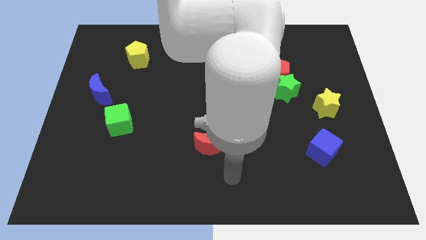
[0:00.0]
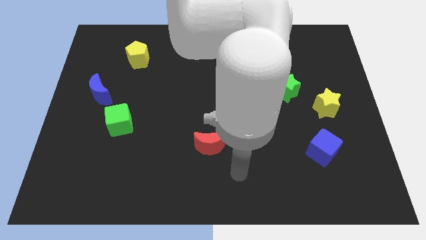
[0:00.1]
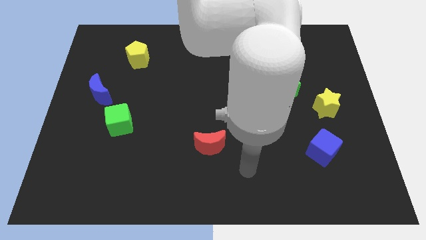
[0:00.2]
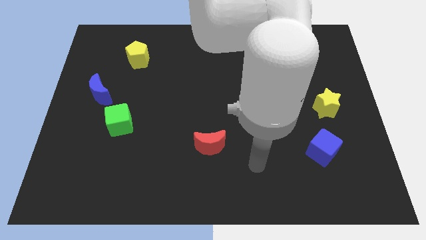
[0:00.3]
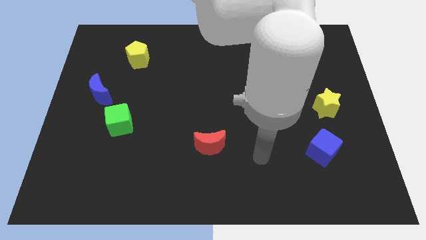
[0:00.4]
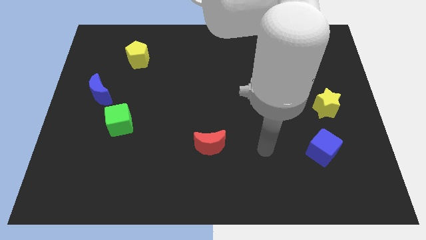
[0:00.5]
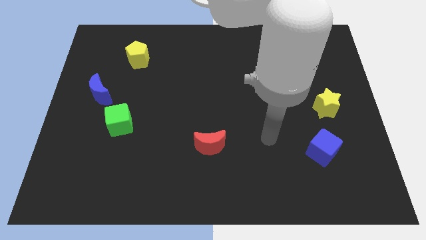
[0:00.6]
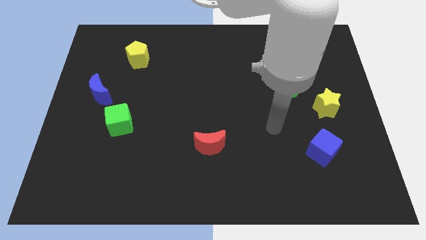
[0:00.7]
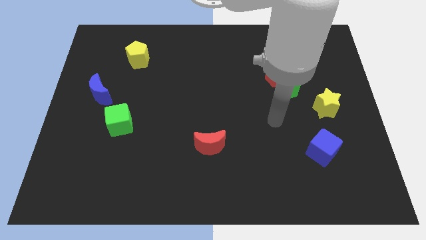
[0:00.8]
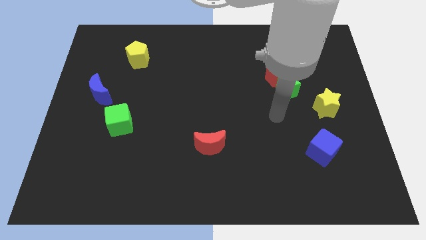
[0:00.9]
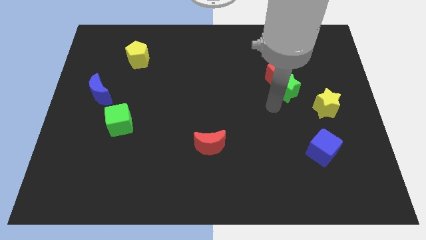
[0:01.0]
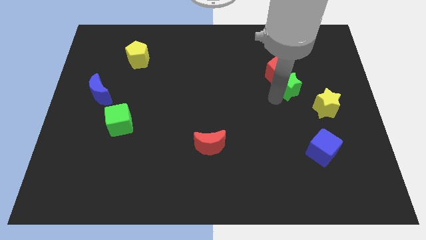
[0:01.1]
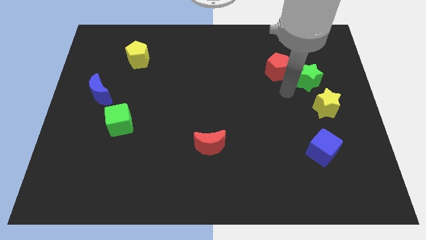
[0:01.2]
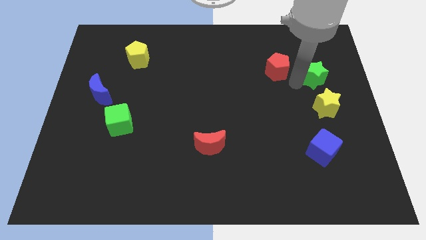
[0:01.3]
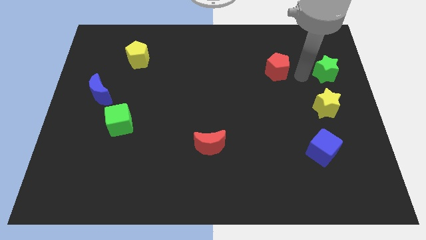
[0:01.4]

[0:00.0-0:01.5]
separate the red pentagon from the green star

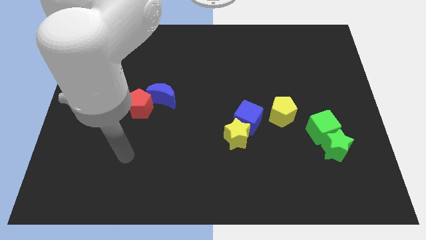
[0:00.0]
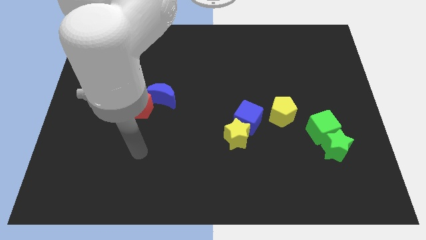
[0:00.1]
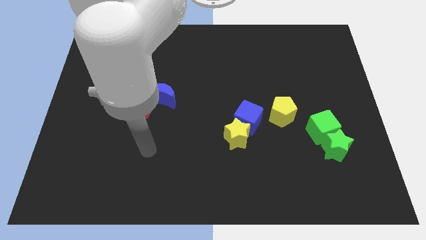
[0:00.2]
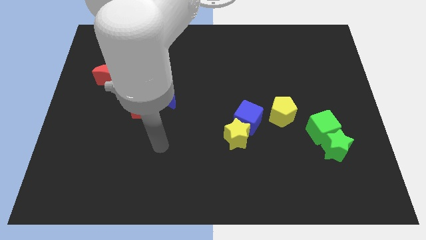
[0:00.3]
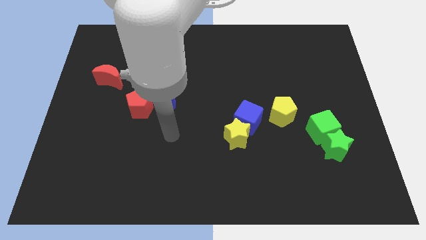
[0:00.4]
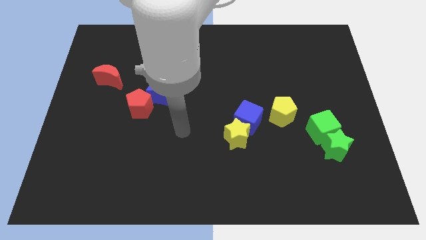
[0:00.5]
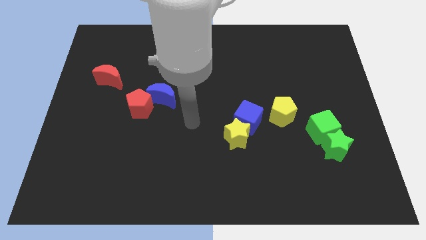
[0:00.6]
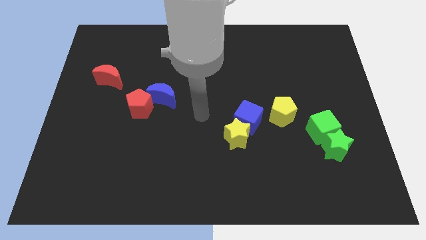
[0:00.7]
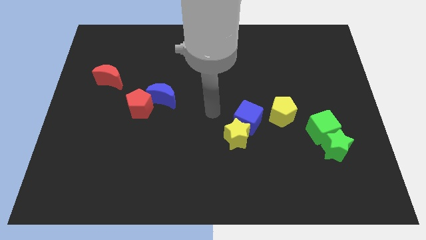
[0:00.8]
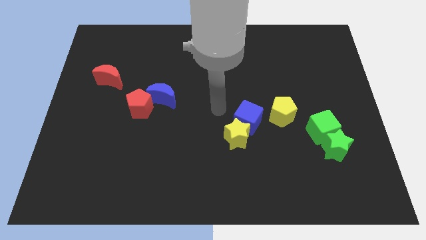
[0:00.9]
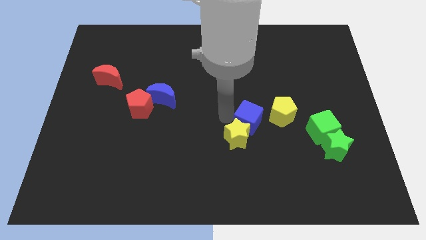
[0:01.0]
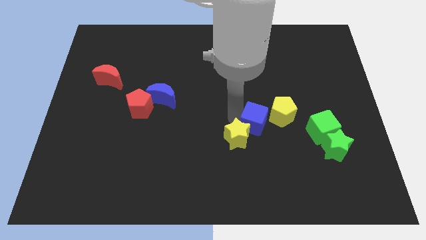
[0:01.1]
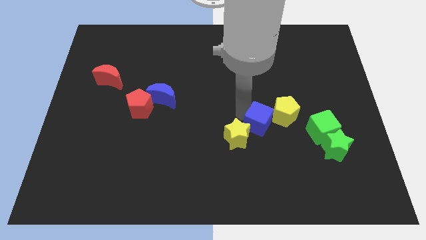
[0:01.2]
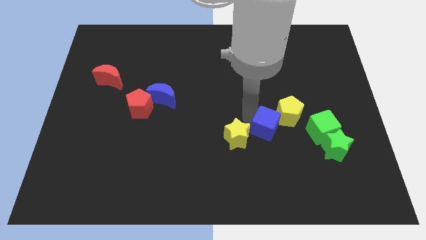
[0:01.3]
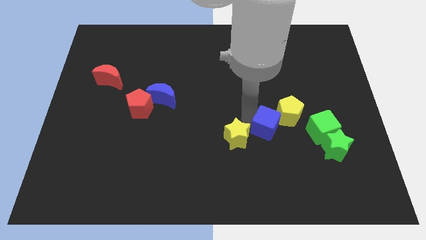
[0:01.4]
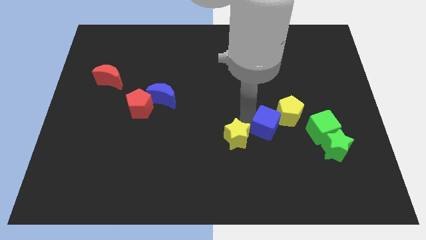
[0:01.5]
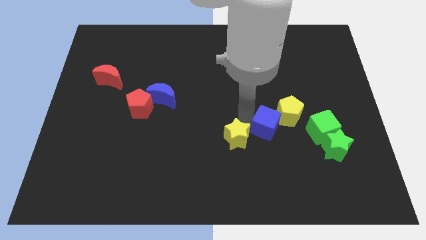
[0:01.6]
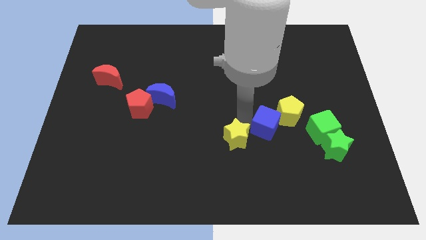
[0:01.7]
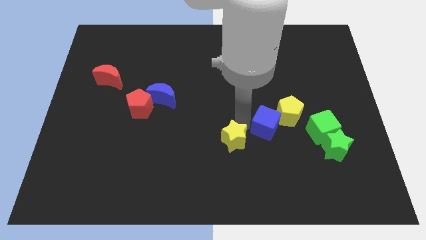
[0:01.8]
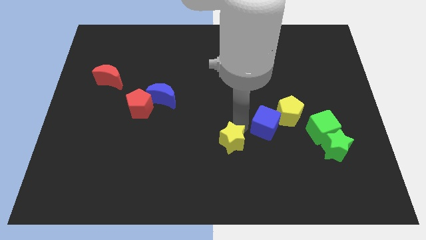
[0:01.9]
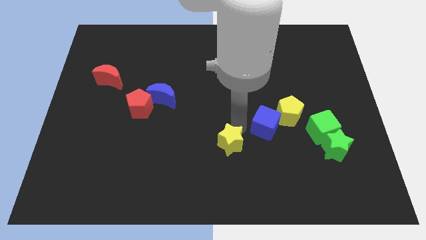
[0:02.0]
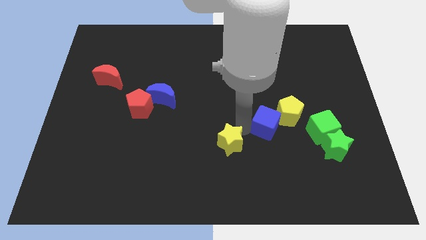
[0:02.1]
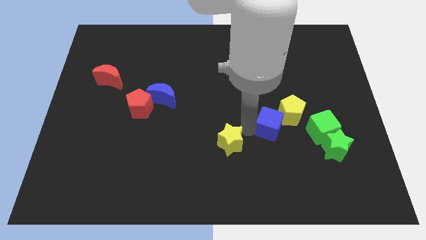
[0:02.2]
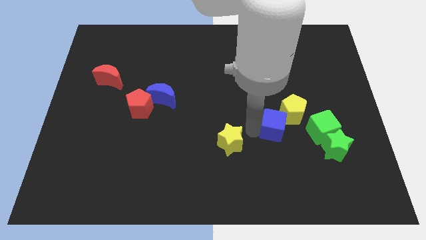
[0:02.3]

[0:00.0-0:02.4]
move the yellow star away from the blue cube

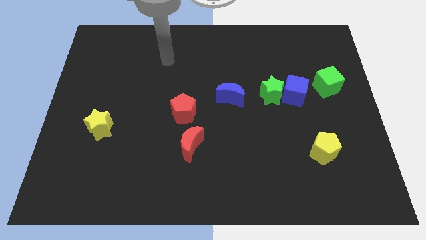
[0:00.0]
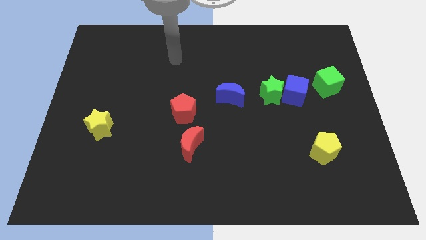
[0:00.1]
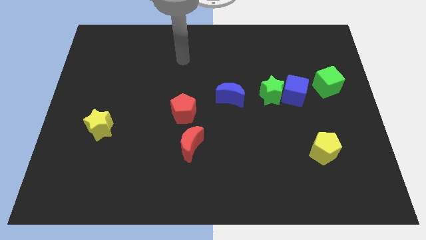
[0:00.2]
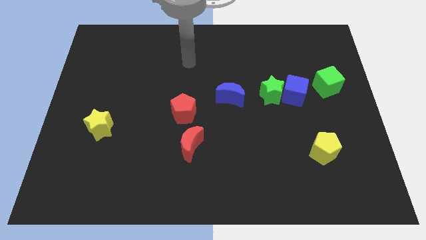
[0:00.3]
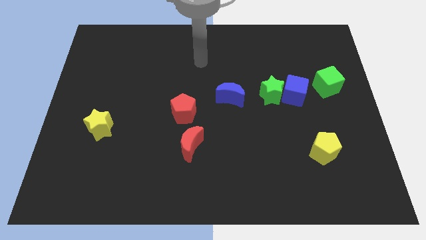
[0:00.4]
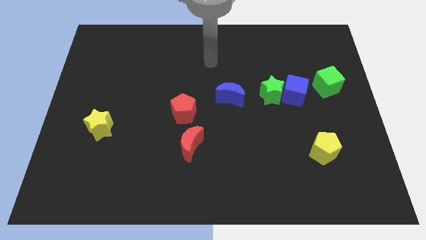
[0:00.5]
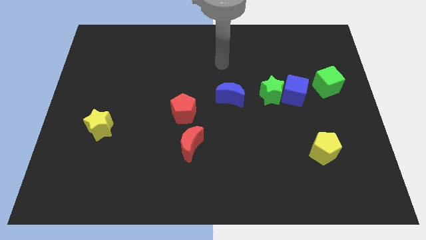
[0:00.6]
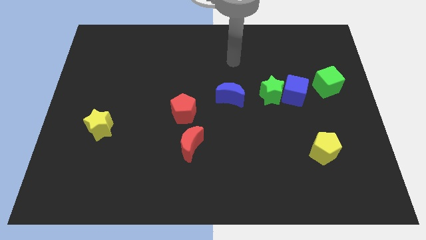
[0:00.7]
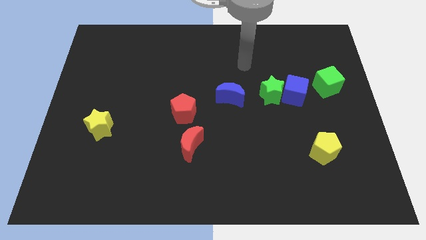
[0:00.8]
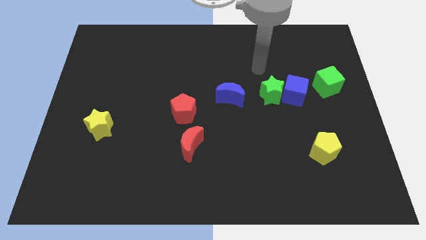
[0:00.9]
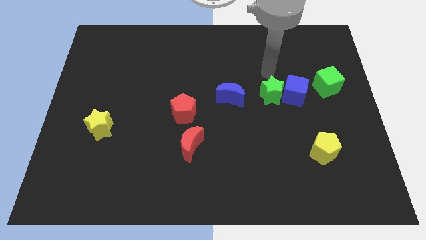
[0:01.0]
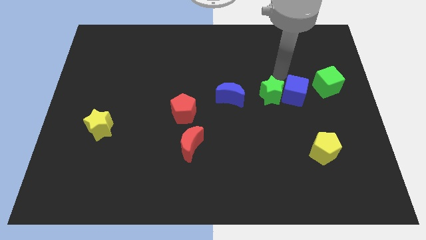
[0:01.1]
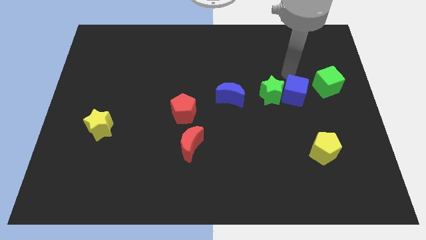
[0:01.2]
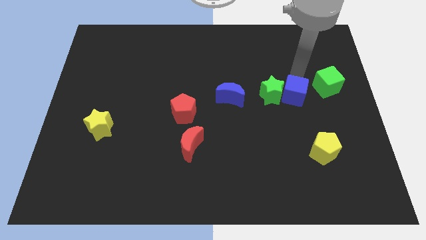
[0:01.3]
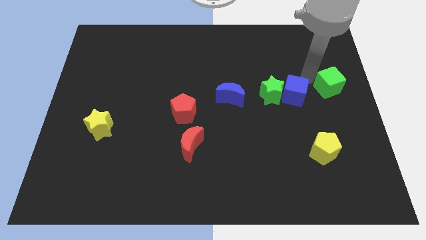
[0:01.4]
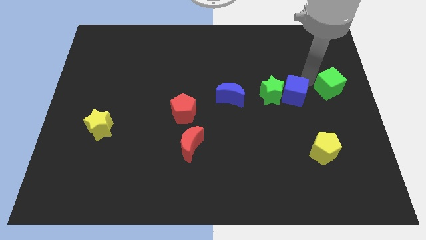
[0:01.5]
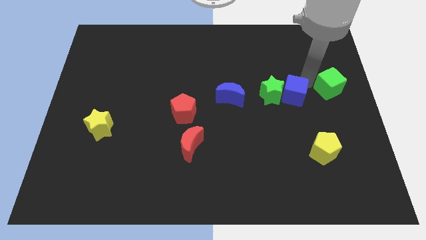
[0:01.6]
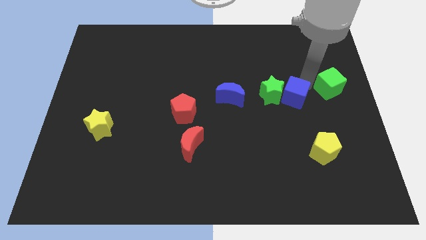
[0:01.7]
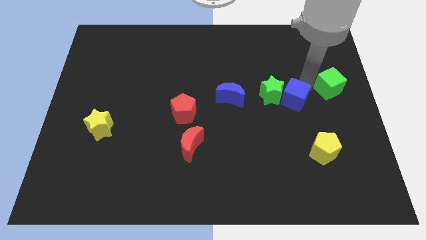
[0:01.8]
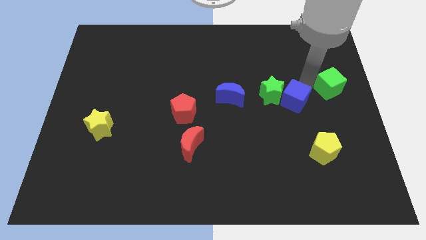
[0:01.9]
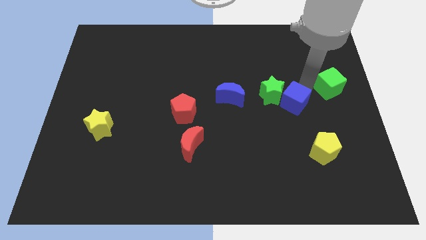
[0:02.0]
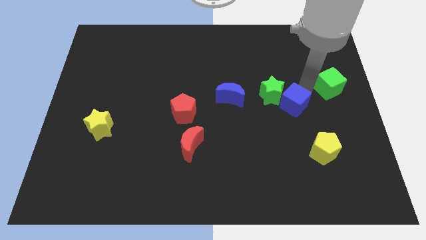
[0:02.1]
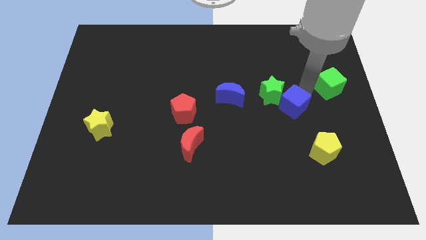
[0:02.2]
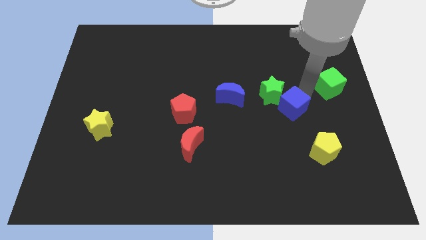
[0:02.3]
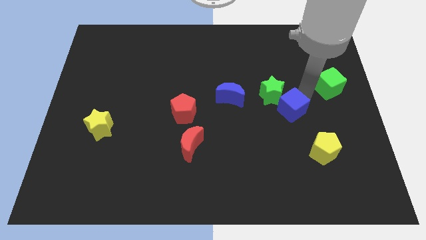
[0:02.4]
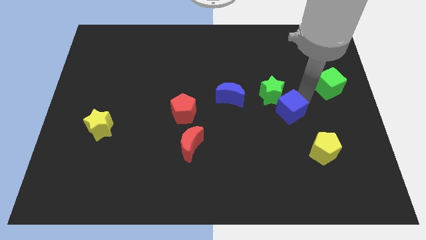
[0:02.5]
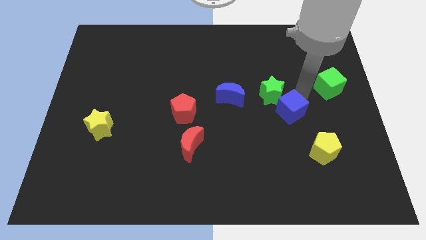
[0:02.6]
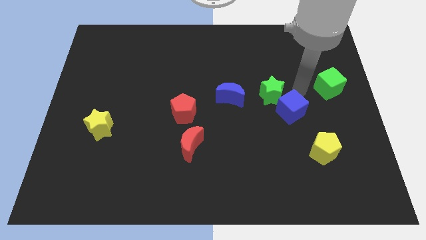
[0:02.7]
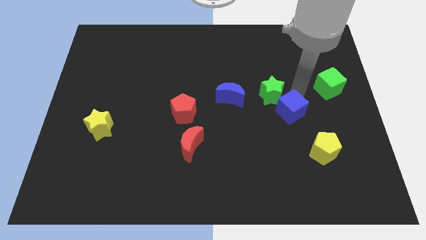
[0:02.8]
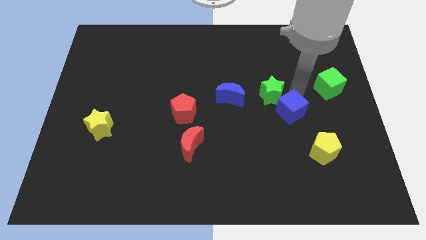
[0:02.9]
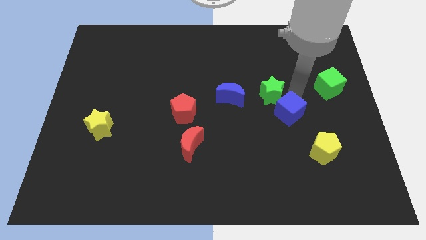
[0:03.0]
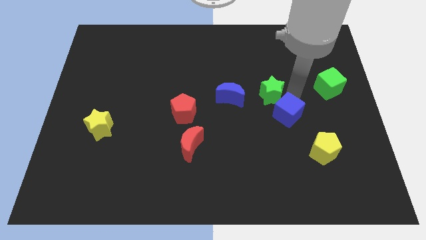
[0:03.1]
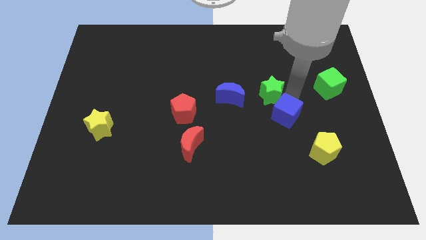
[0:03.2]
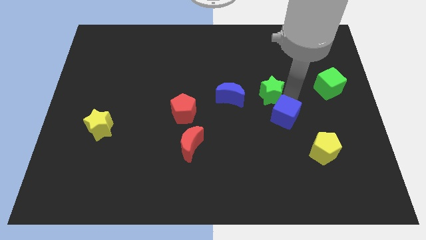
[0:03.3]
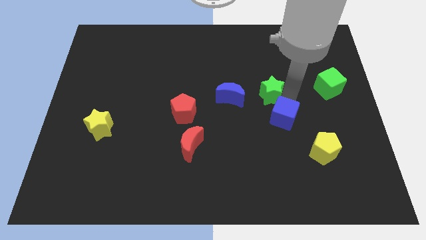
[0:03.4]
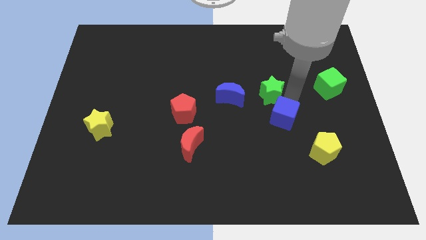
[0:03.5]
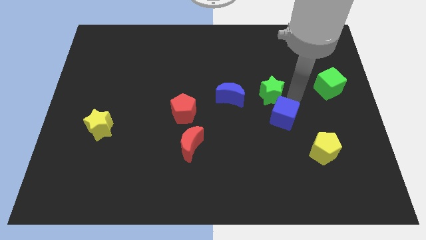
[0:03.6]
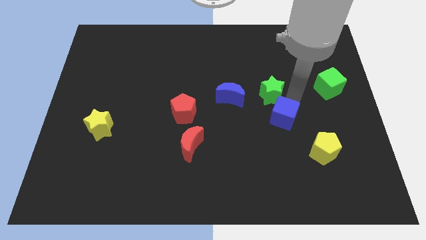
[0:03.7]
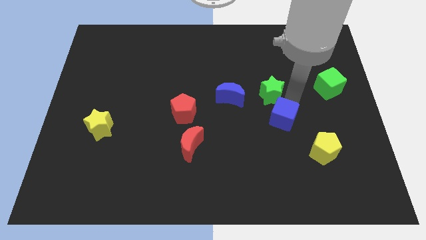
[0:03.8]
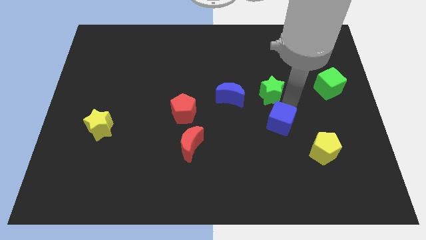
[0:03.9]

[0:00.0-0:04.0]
separate the blue cube from the green star and green cube

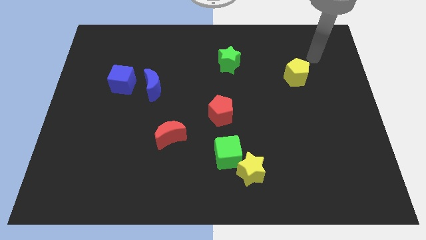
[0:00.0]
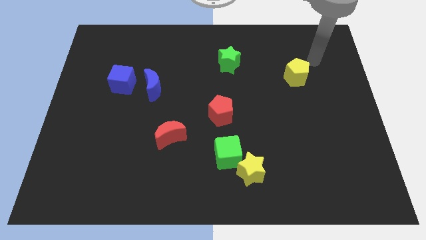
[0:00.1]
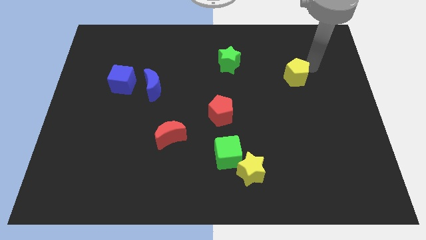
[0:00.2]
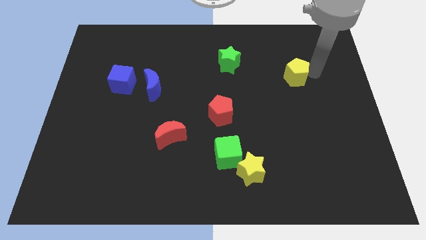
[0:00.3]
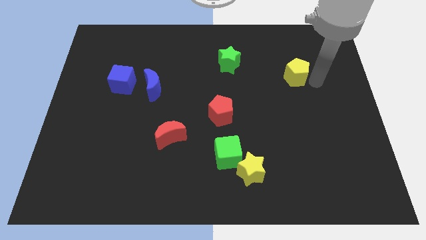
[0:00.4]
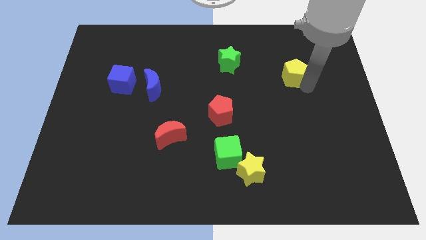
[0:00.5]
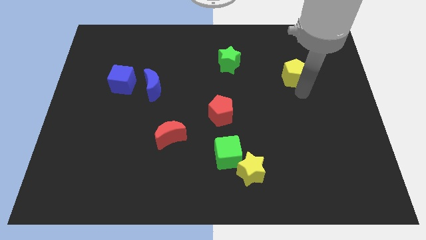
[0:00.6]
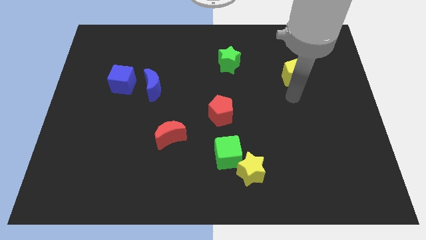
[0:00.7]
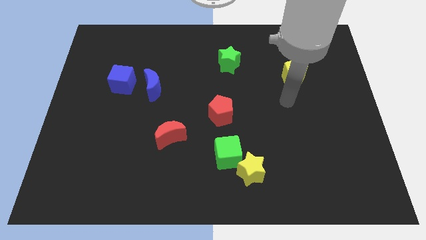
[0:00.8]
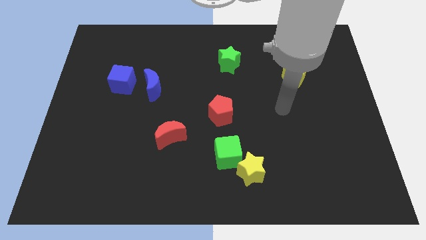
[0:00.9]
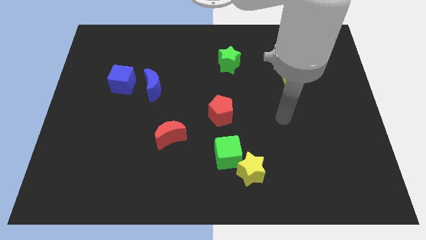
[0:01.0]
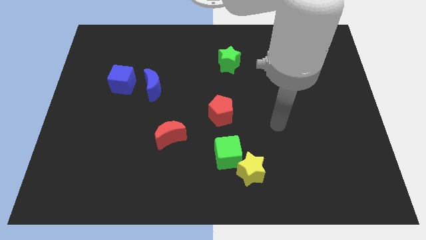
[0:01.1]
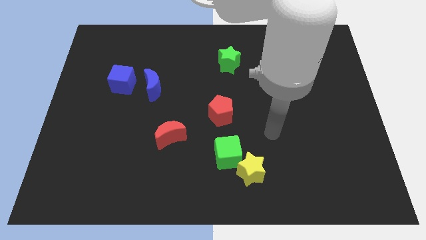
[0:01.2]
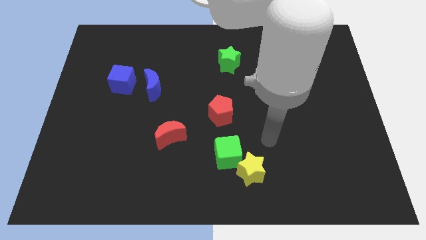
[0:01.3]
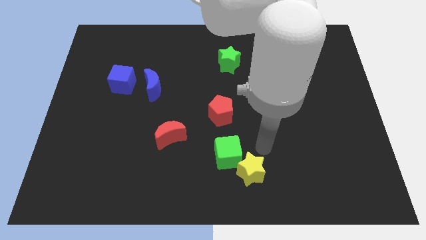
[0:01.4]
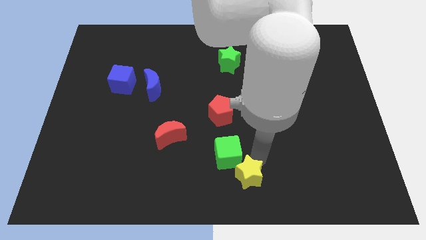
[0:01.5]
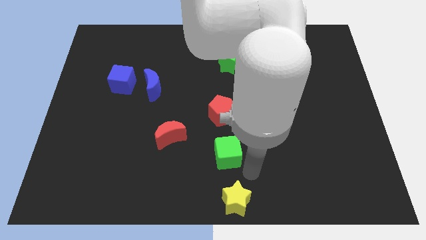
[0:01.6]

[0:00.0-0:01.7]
move the green cube away from the yellow star
